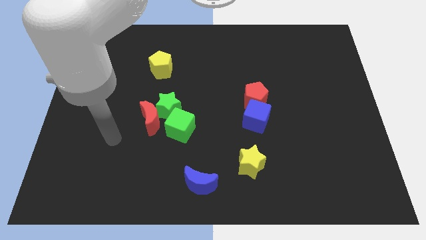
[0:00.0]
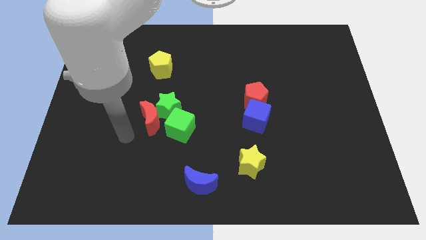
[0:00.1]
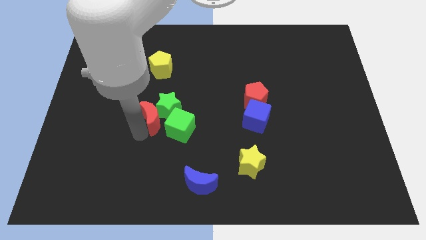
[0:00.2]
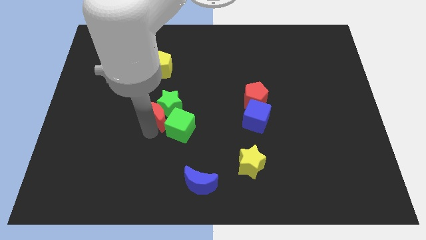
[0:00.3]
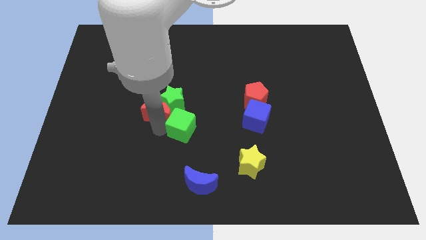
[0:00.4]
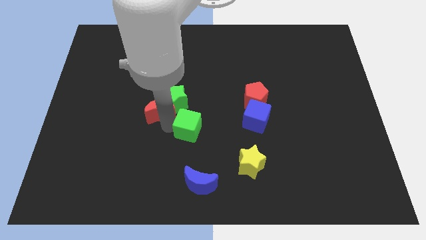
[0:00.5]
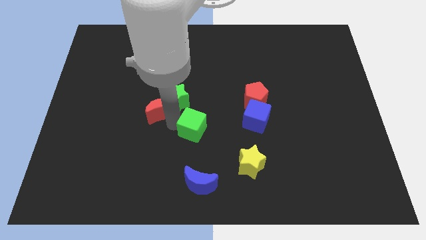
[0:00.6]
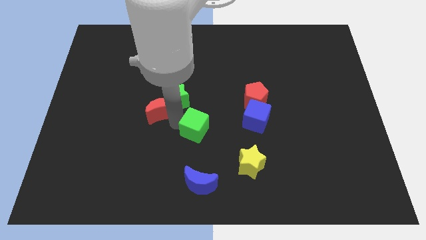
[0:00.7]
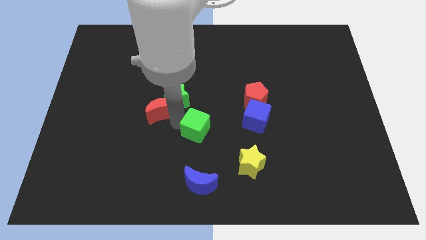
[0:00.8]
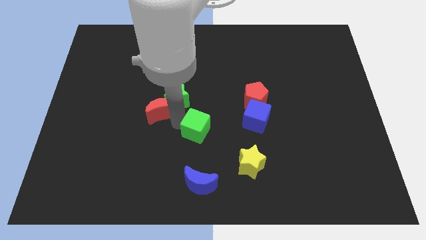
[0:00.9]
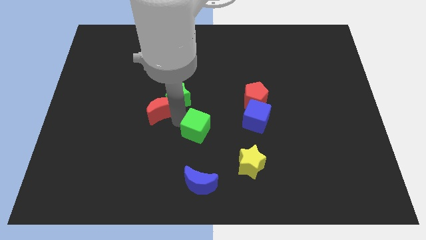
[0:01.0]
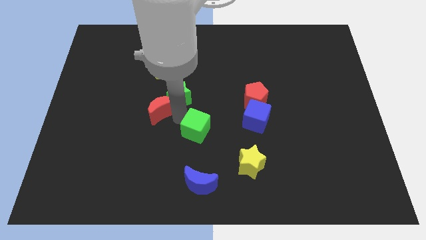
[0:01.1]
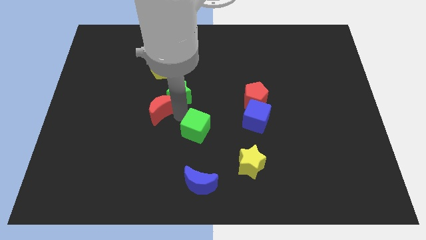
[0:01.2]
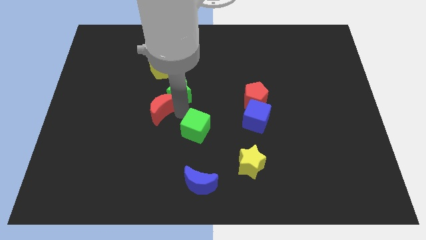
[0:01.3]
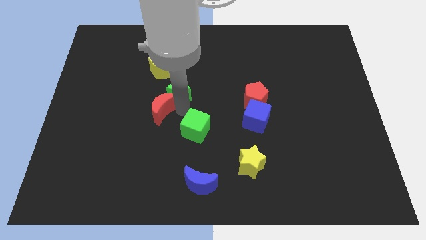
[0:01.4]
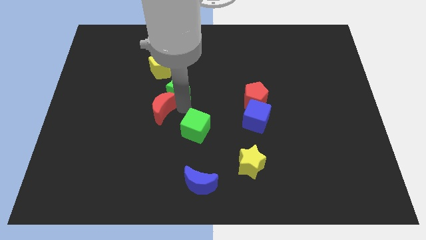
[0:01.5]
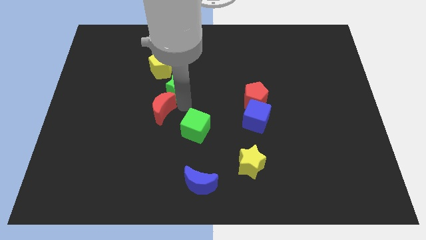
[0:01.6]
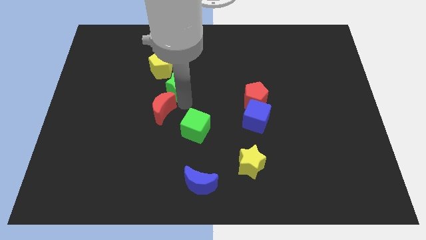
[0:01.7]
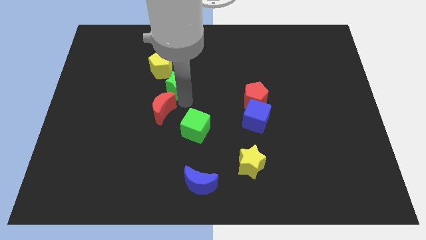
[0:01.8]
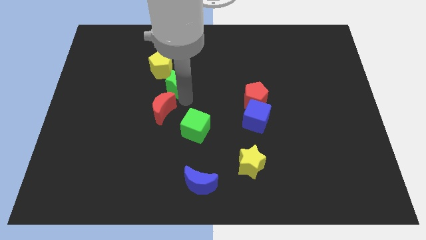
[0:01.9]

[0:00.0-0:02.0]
move the green star away from the red moon and green cube

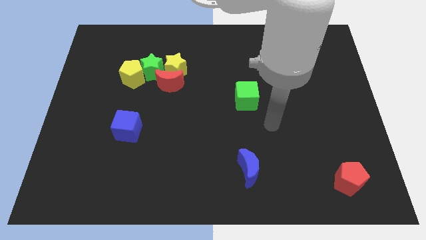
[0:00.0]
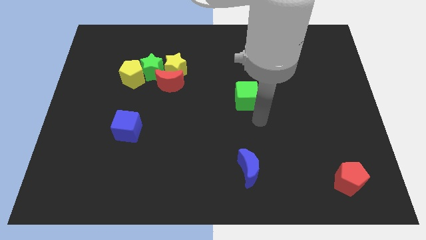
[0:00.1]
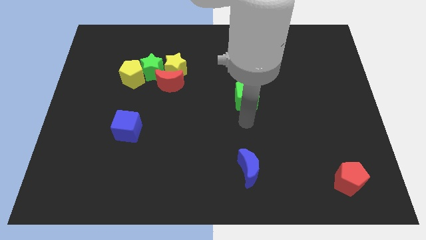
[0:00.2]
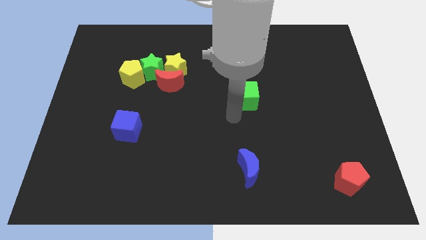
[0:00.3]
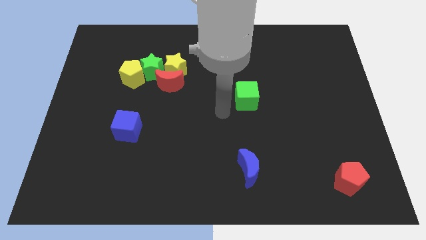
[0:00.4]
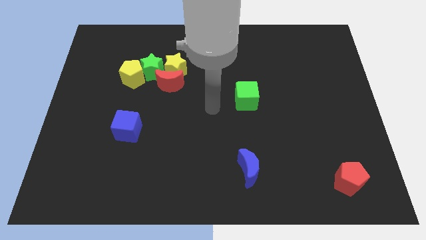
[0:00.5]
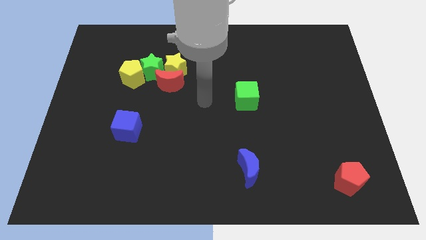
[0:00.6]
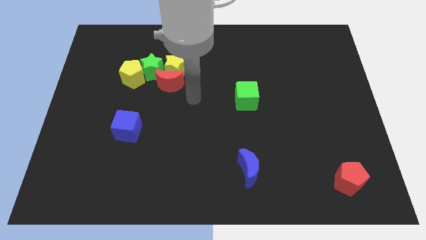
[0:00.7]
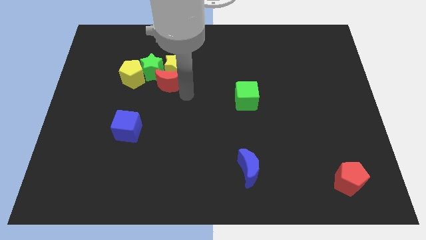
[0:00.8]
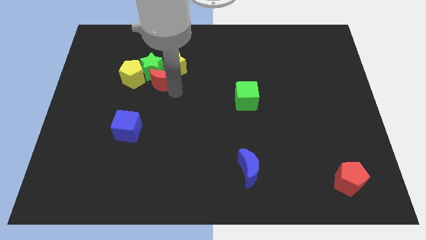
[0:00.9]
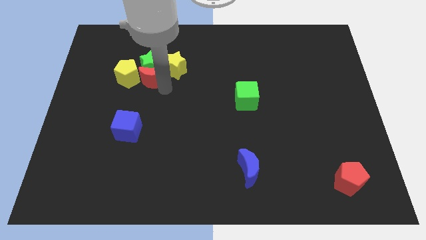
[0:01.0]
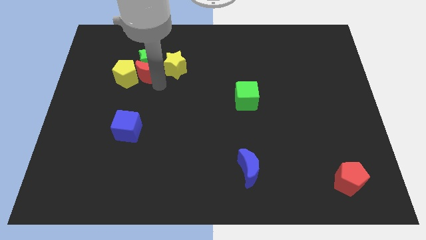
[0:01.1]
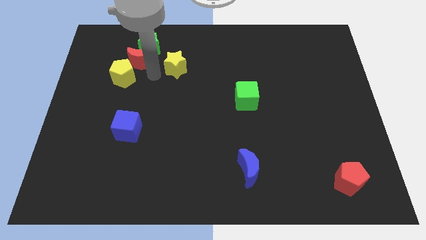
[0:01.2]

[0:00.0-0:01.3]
separate the yellow star from the red moon and green star

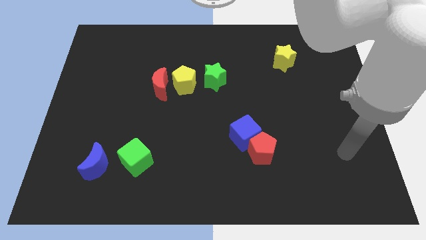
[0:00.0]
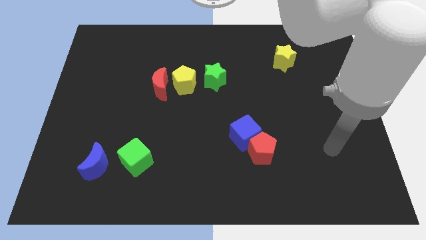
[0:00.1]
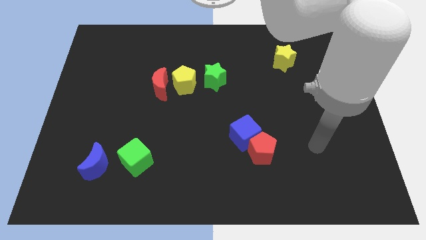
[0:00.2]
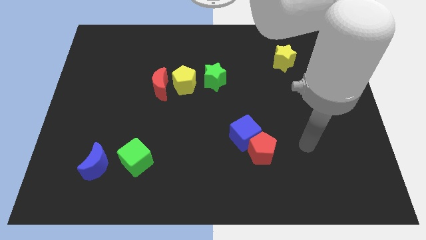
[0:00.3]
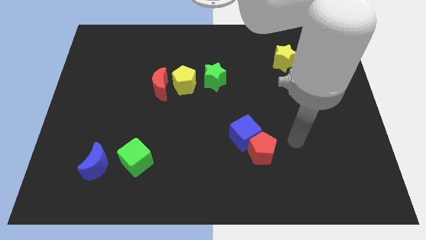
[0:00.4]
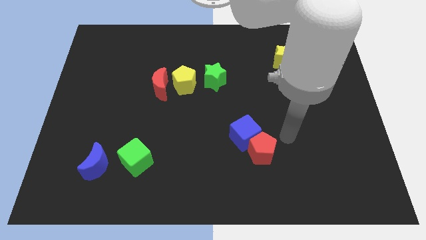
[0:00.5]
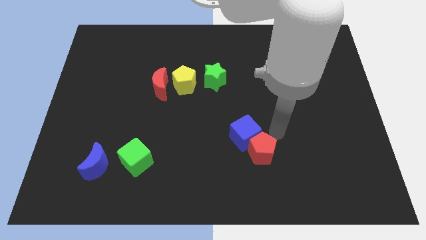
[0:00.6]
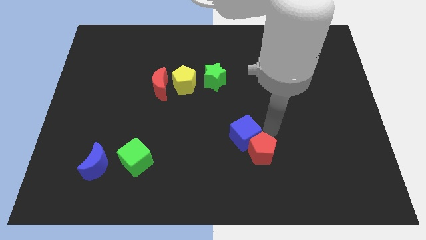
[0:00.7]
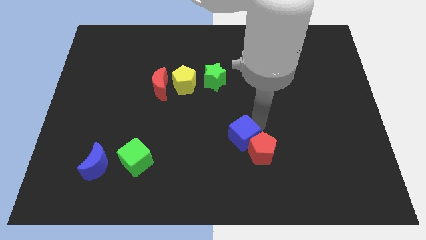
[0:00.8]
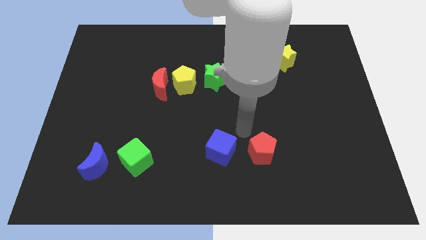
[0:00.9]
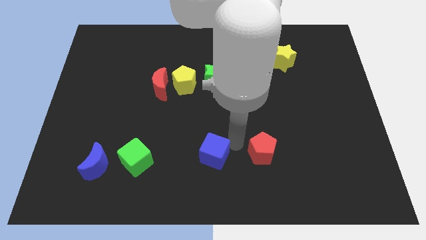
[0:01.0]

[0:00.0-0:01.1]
separate the red pentagon from the blue cube

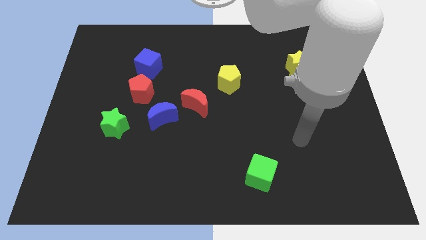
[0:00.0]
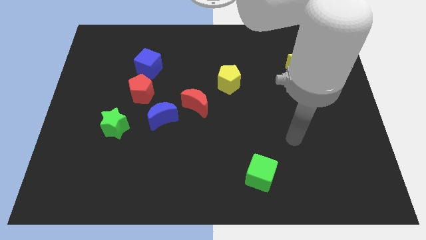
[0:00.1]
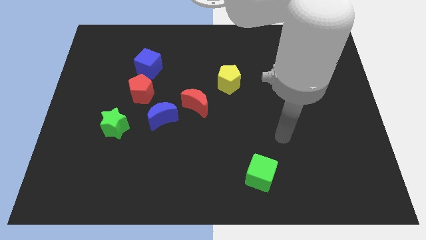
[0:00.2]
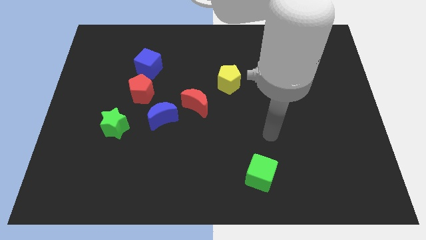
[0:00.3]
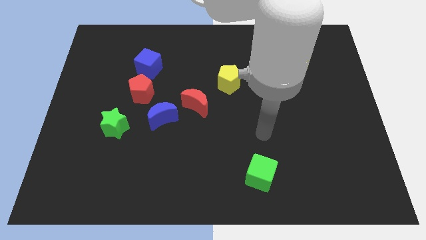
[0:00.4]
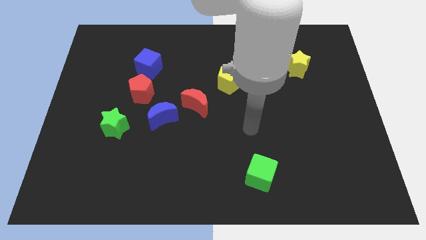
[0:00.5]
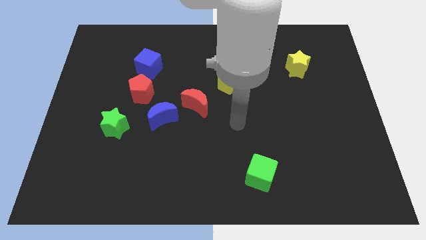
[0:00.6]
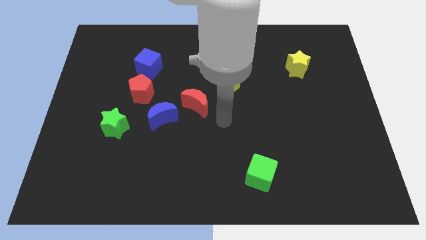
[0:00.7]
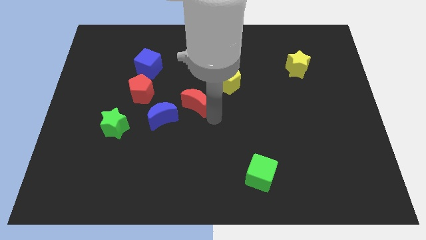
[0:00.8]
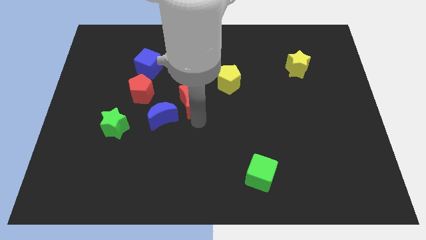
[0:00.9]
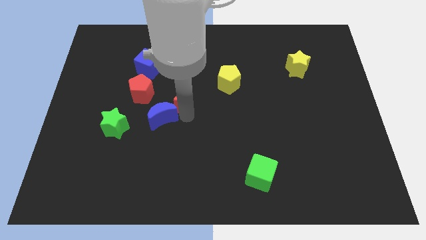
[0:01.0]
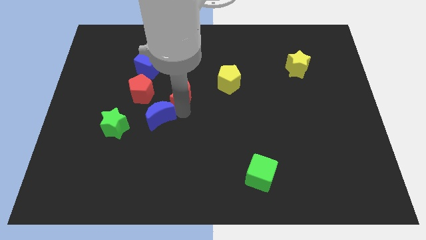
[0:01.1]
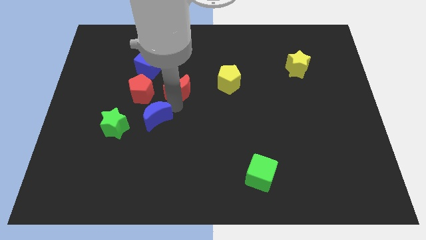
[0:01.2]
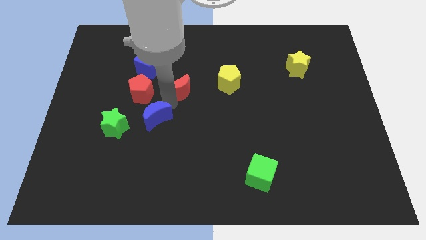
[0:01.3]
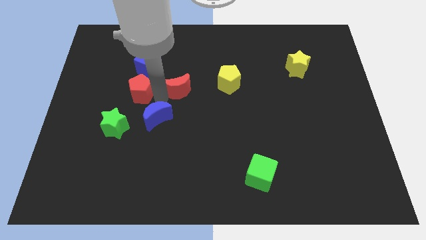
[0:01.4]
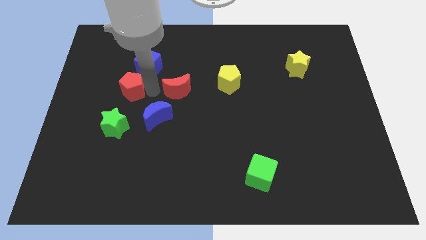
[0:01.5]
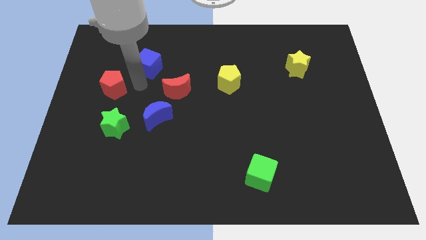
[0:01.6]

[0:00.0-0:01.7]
pull the blue cube apart from the red pentagon

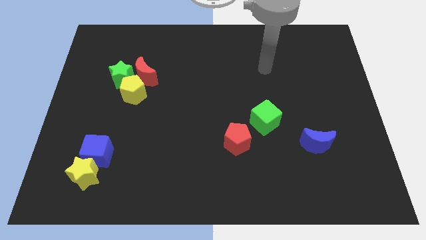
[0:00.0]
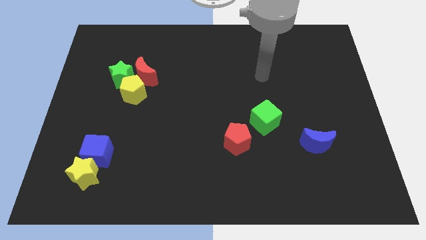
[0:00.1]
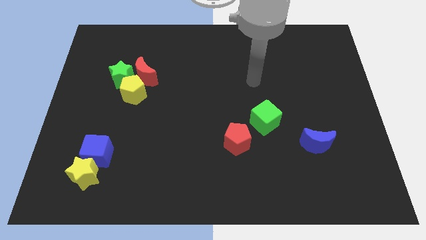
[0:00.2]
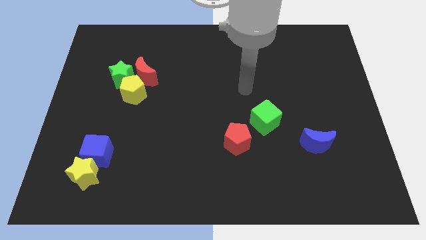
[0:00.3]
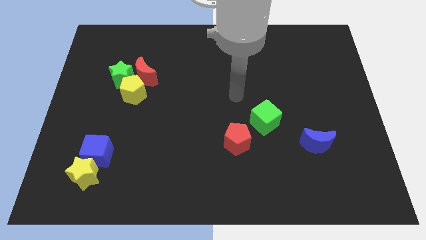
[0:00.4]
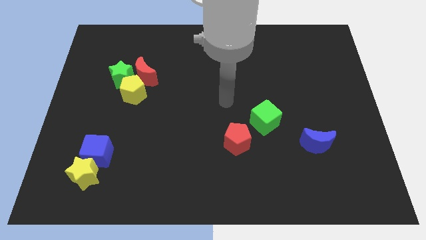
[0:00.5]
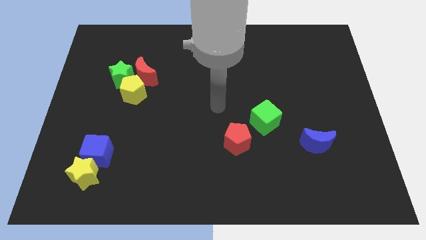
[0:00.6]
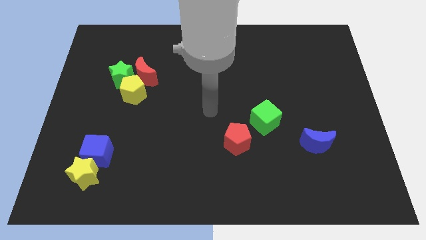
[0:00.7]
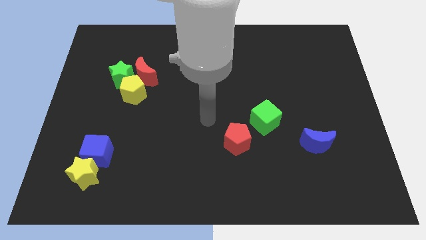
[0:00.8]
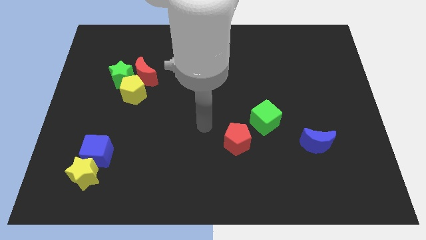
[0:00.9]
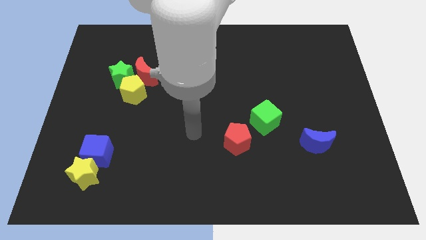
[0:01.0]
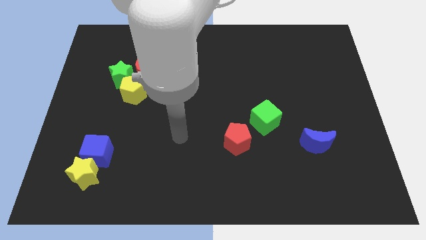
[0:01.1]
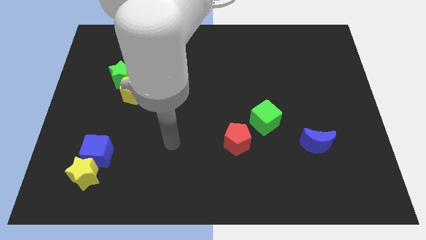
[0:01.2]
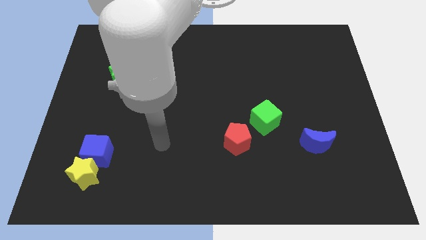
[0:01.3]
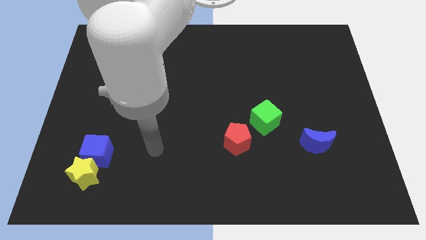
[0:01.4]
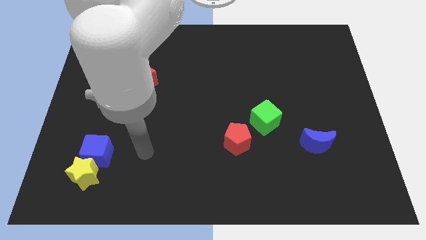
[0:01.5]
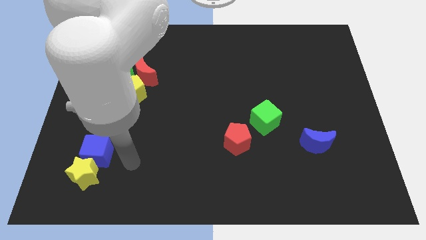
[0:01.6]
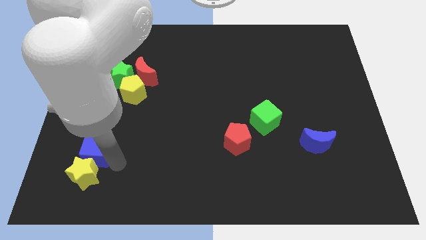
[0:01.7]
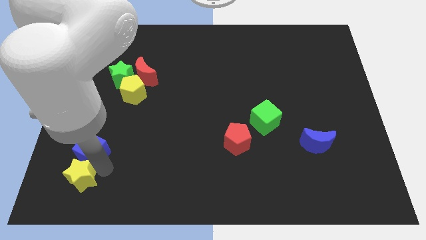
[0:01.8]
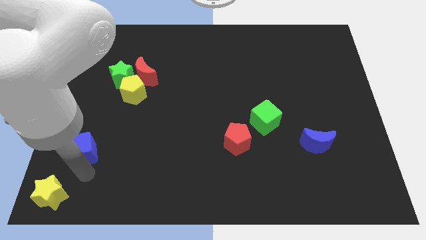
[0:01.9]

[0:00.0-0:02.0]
pull the blue cube apart from the yellow star

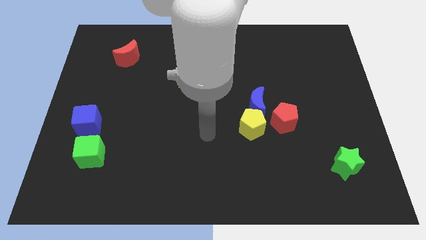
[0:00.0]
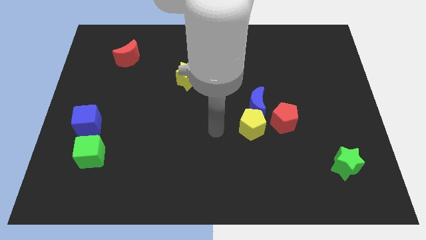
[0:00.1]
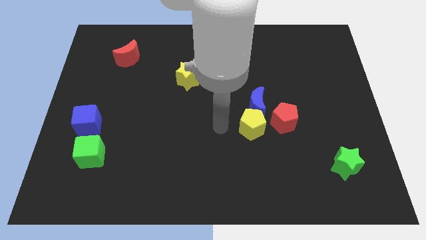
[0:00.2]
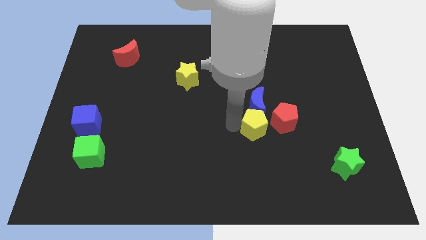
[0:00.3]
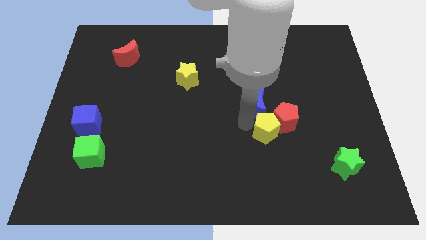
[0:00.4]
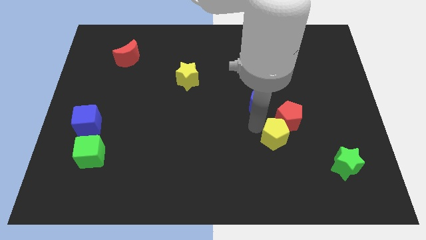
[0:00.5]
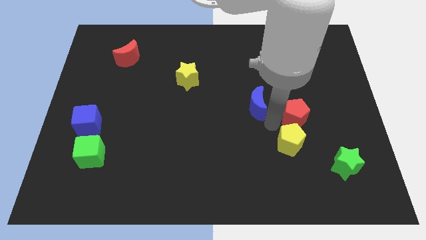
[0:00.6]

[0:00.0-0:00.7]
move the blue moon away from the yellow pentagon and red pentagon

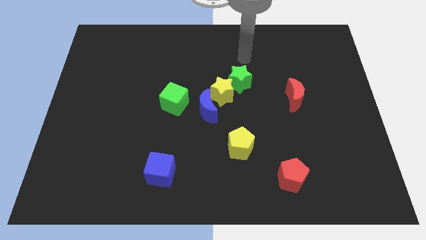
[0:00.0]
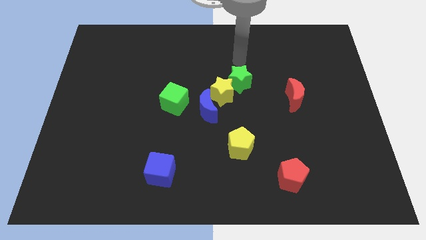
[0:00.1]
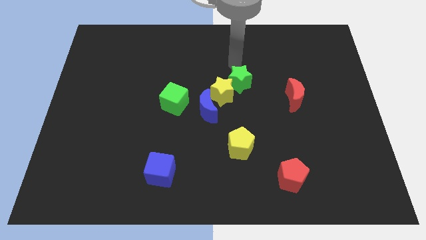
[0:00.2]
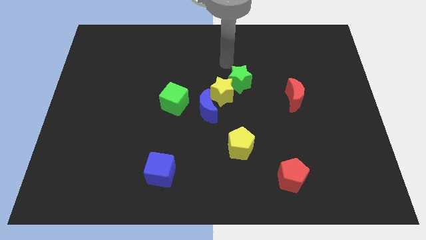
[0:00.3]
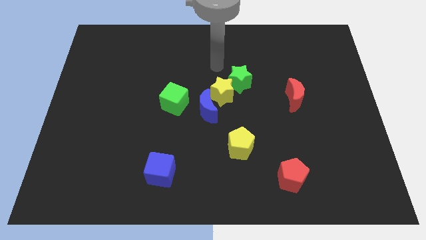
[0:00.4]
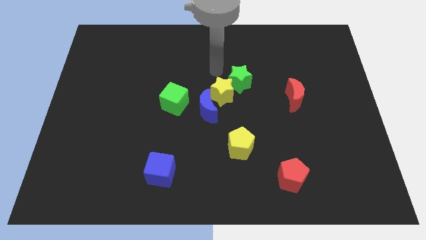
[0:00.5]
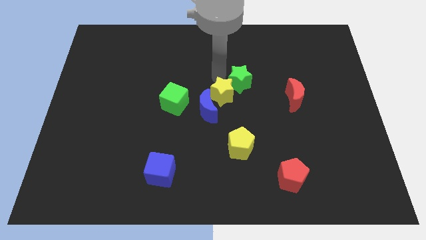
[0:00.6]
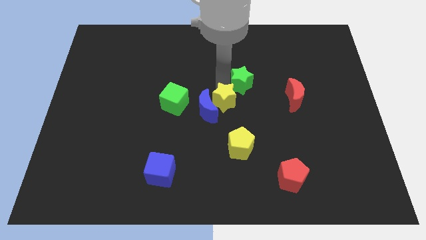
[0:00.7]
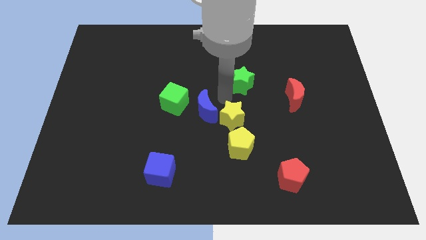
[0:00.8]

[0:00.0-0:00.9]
pull the green star apart from the yellow star
